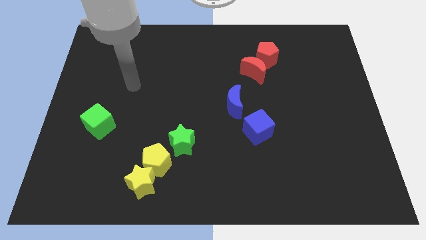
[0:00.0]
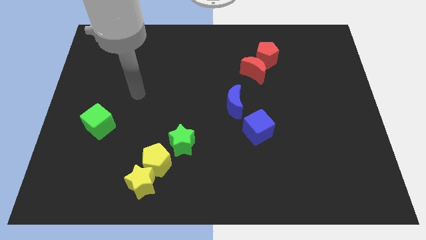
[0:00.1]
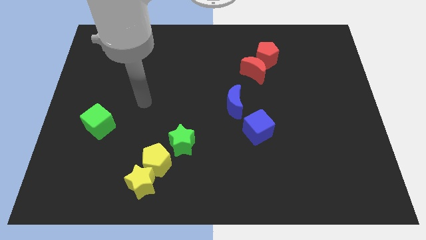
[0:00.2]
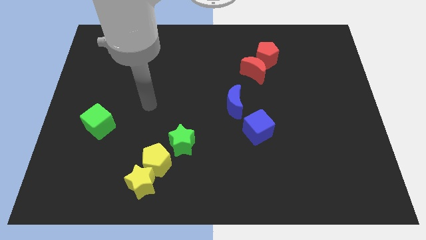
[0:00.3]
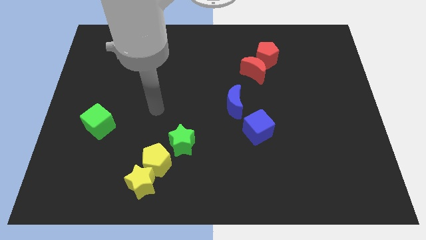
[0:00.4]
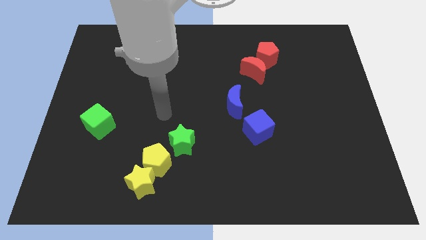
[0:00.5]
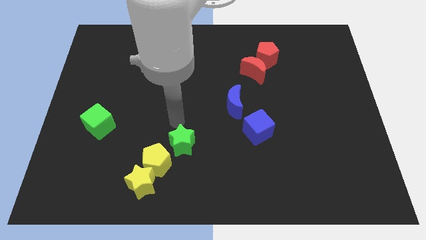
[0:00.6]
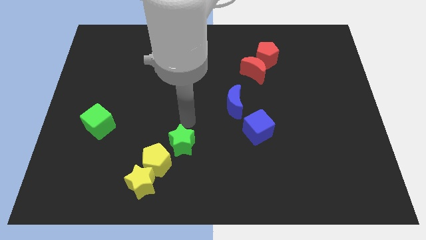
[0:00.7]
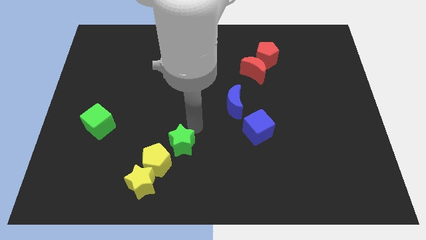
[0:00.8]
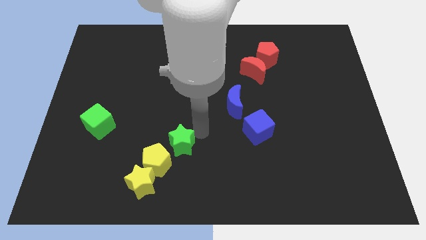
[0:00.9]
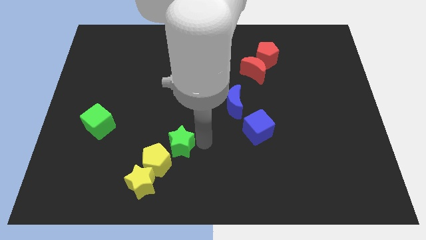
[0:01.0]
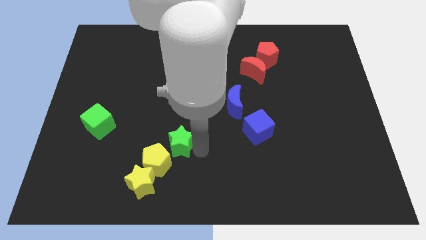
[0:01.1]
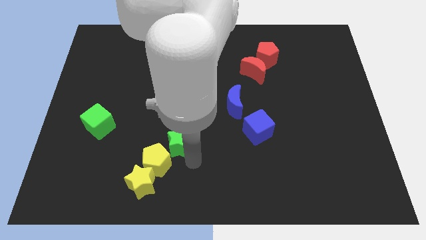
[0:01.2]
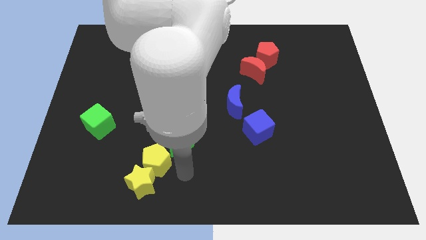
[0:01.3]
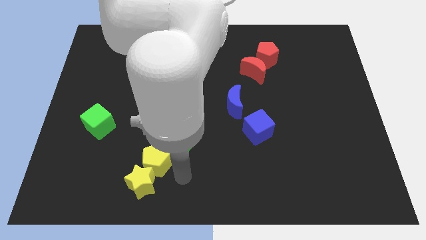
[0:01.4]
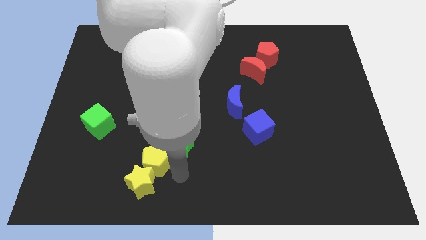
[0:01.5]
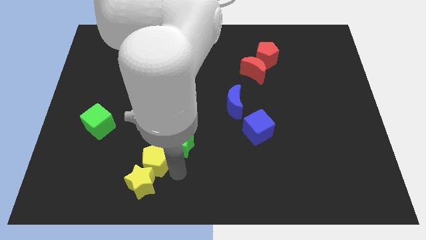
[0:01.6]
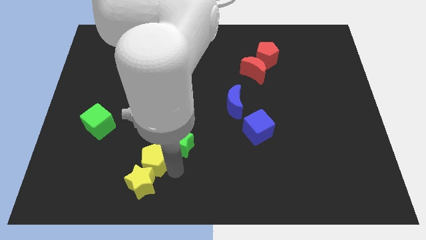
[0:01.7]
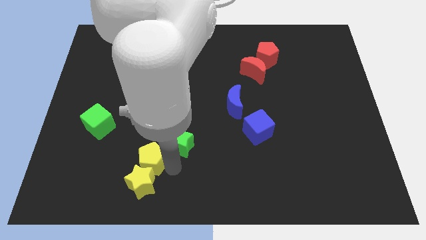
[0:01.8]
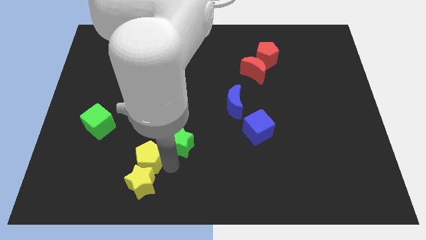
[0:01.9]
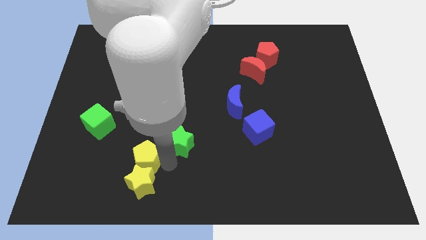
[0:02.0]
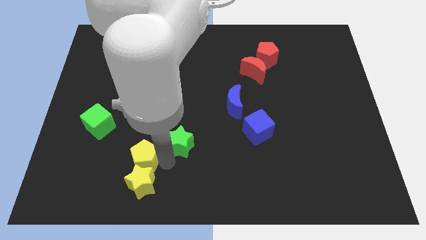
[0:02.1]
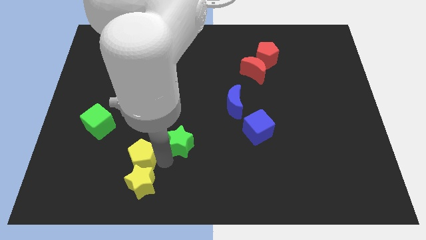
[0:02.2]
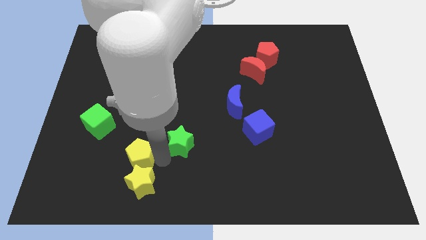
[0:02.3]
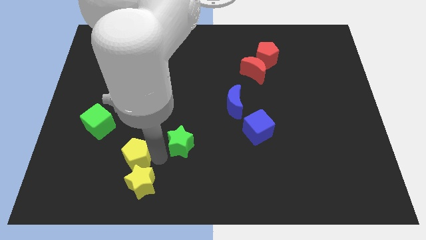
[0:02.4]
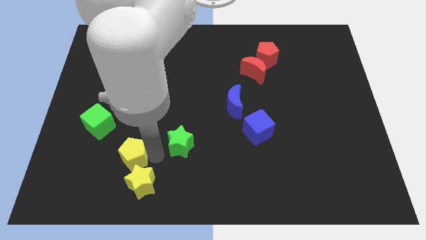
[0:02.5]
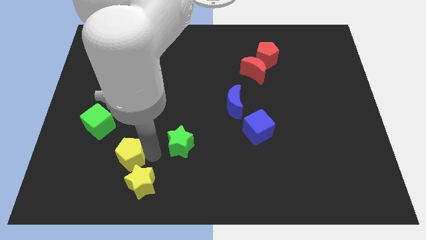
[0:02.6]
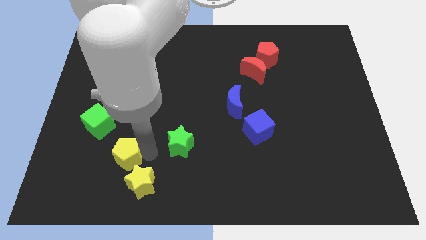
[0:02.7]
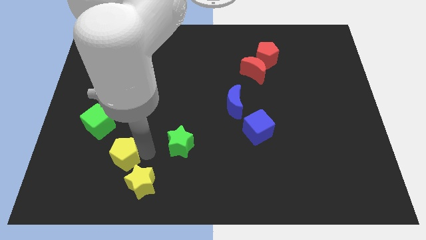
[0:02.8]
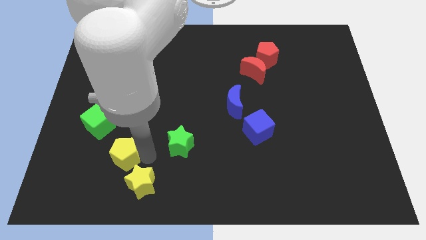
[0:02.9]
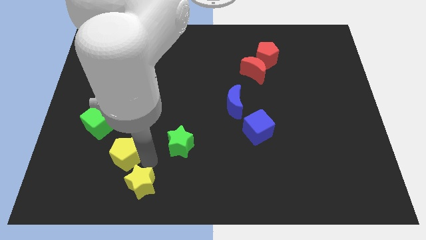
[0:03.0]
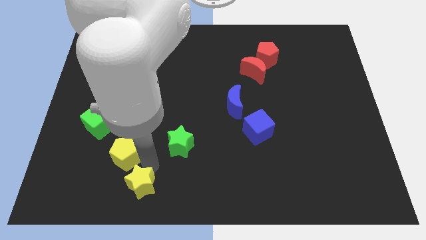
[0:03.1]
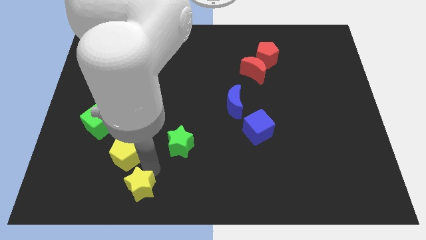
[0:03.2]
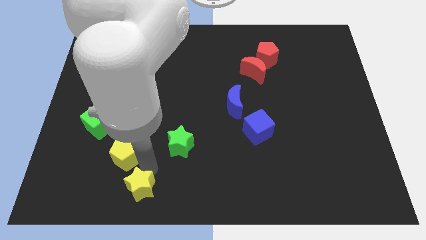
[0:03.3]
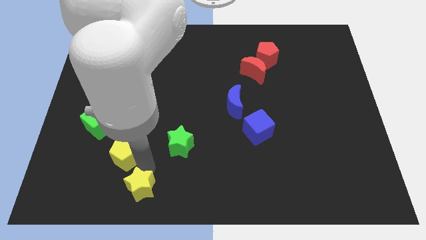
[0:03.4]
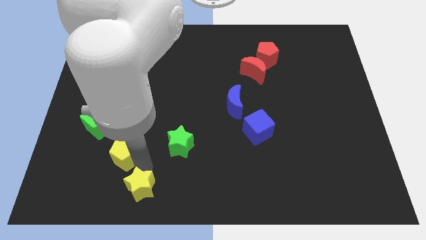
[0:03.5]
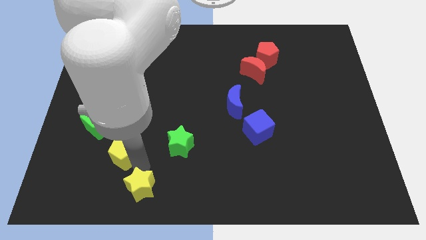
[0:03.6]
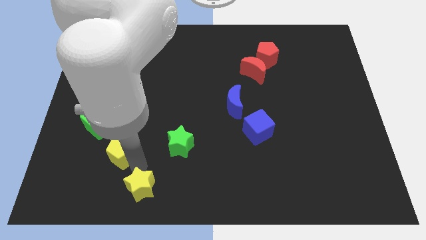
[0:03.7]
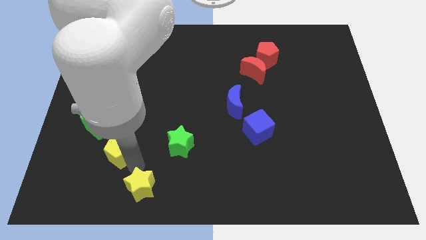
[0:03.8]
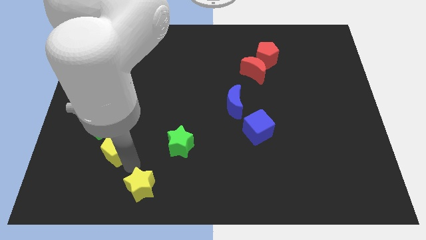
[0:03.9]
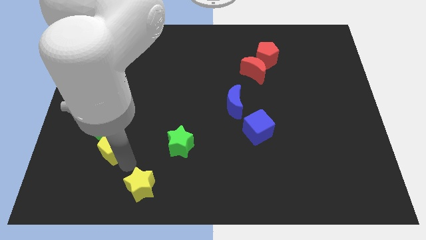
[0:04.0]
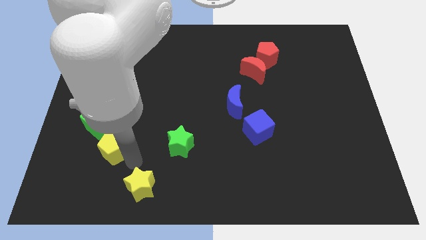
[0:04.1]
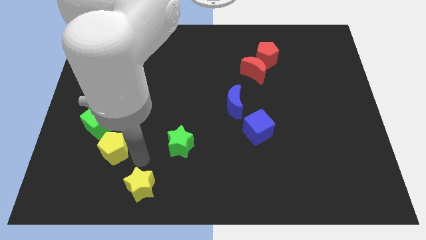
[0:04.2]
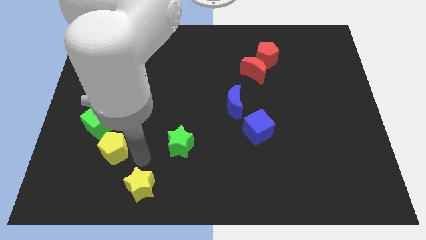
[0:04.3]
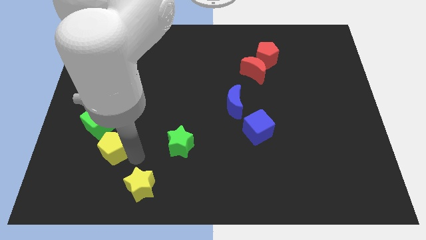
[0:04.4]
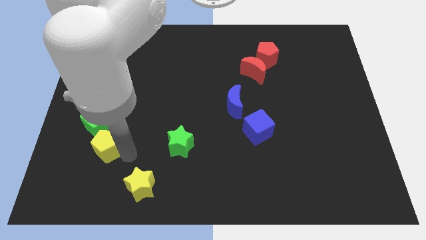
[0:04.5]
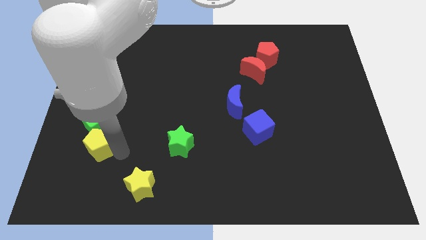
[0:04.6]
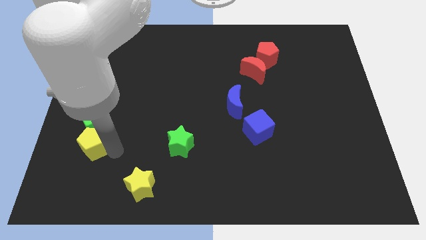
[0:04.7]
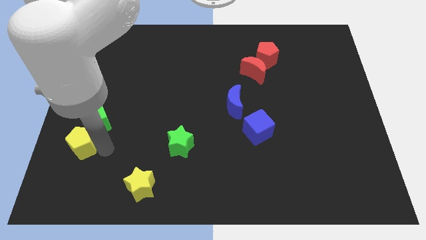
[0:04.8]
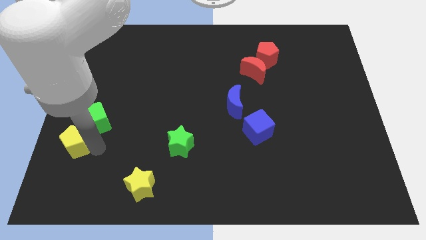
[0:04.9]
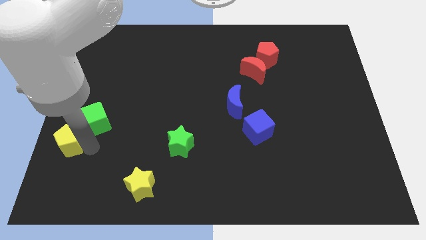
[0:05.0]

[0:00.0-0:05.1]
slide the yellow pentagon to the center left

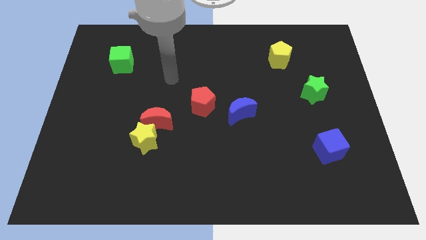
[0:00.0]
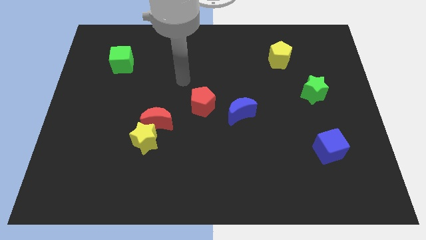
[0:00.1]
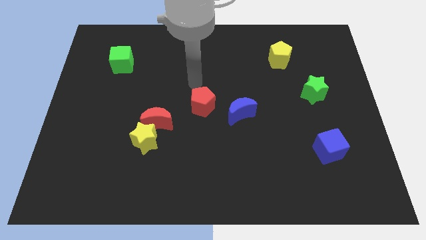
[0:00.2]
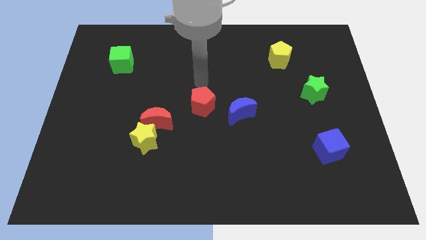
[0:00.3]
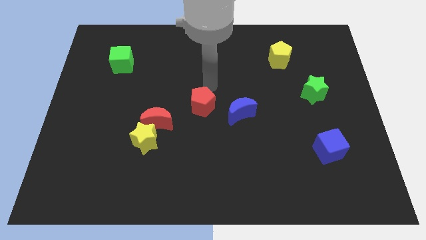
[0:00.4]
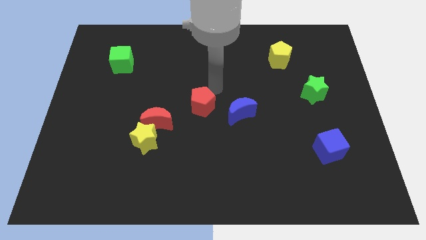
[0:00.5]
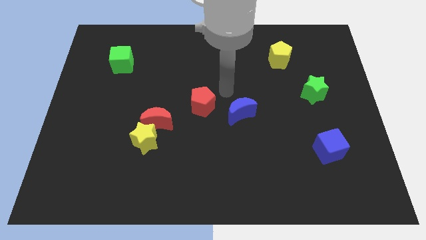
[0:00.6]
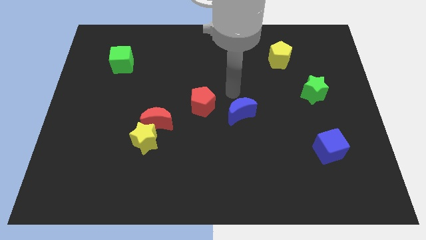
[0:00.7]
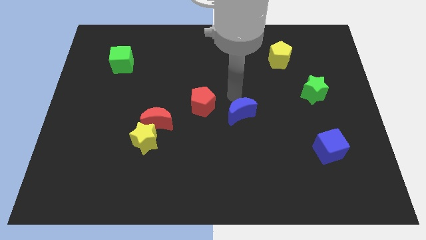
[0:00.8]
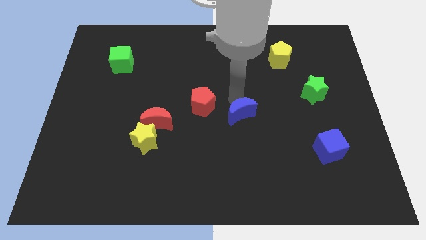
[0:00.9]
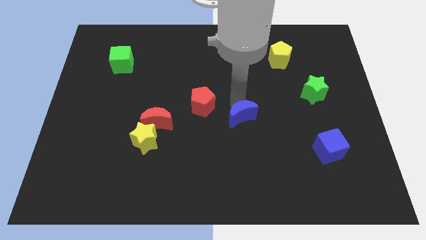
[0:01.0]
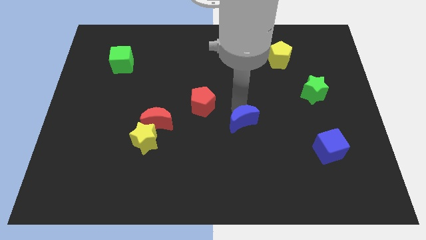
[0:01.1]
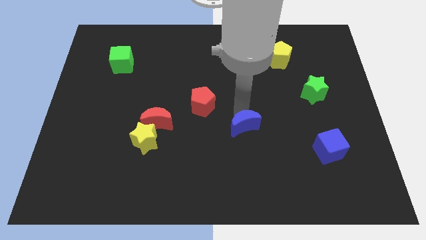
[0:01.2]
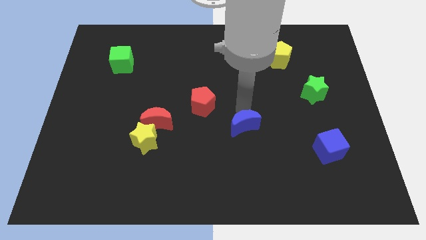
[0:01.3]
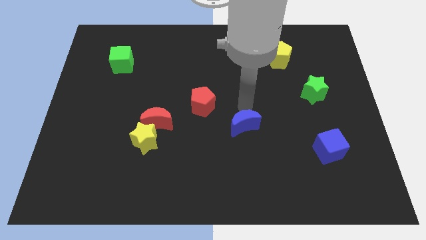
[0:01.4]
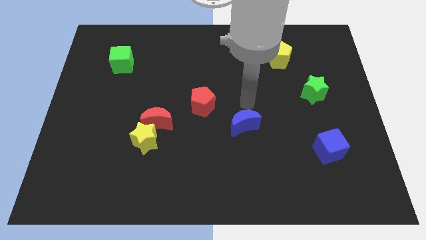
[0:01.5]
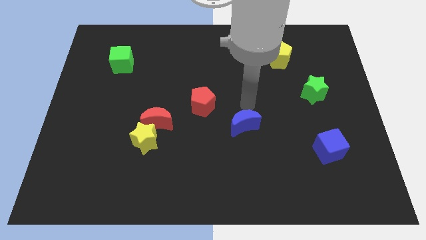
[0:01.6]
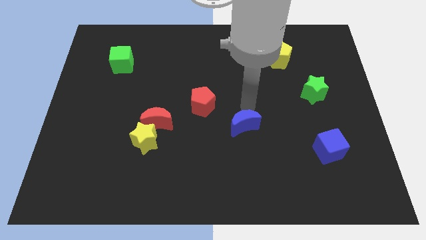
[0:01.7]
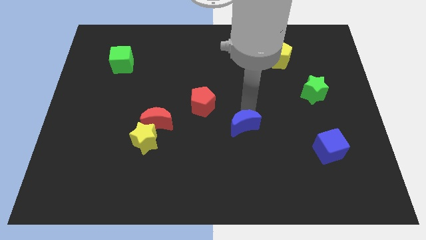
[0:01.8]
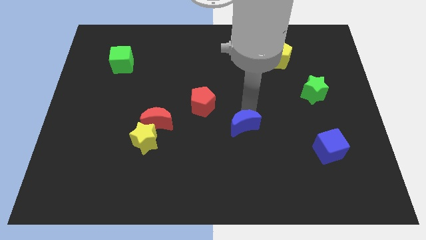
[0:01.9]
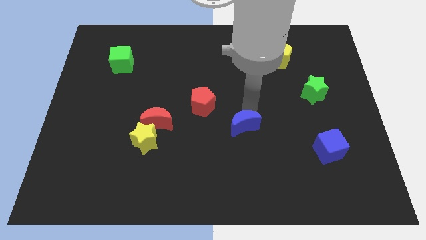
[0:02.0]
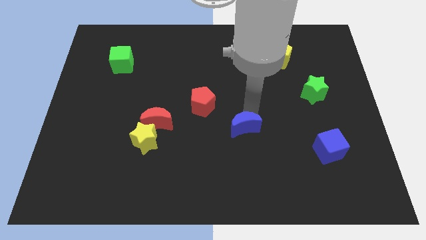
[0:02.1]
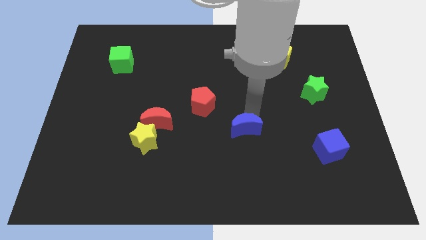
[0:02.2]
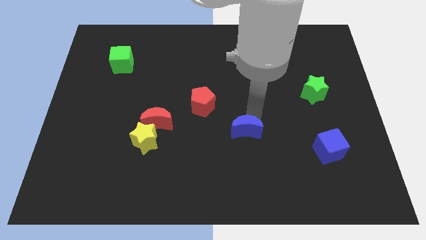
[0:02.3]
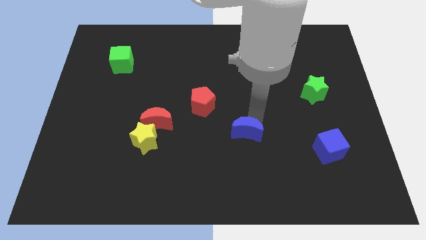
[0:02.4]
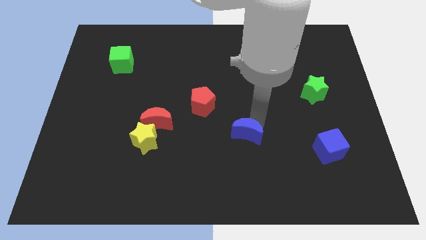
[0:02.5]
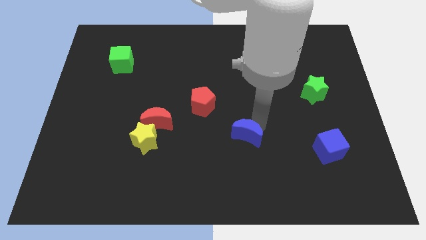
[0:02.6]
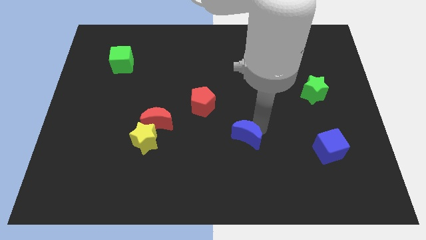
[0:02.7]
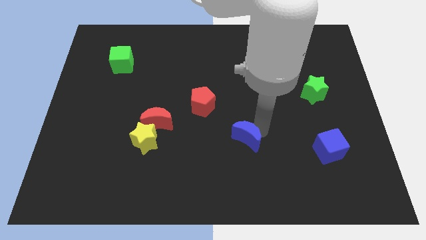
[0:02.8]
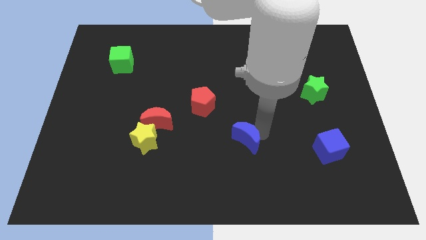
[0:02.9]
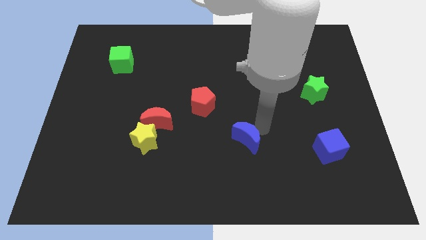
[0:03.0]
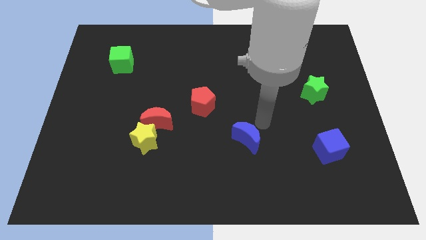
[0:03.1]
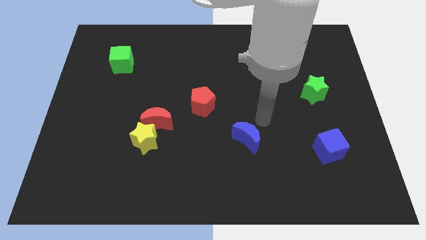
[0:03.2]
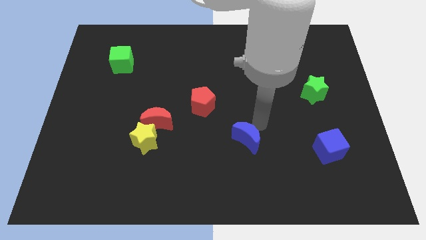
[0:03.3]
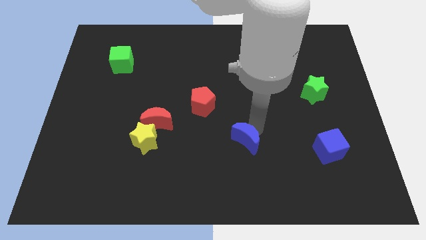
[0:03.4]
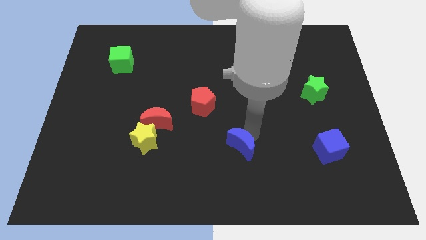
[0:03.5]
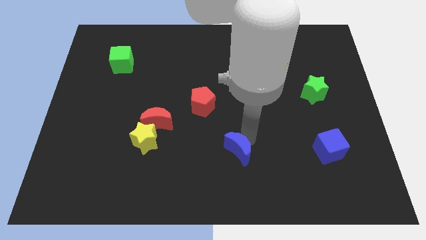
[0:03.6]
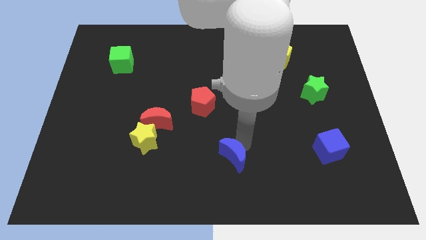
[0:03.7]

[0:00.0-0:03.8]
move the blue moon to the bottom

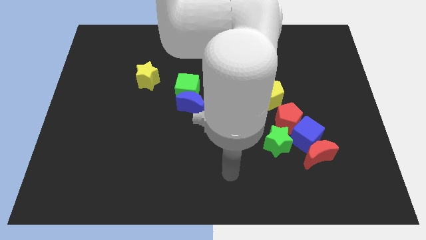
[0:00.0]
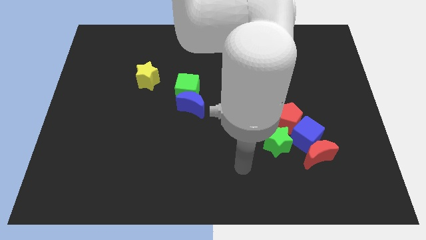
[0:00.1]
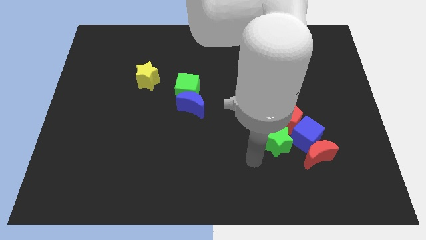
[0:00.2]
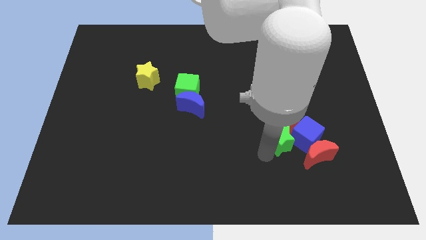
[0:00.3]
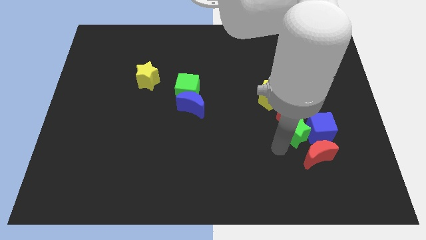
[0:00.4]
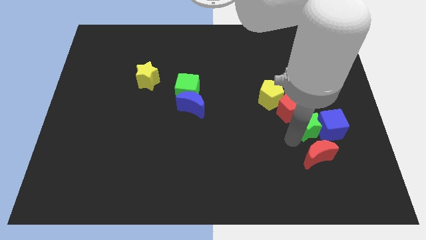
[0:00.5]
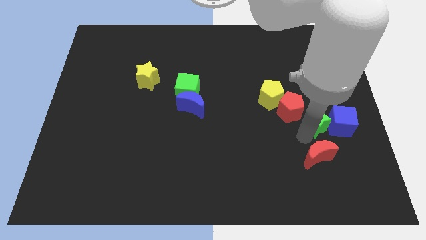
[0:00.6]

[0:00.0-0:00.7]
move the blue cube to the center right
